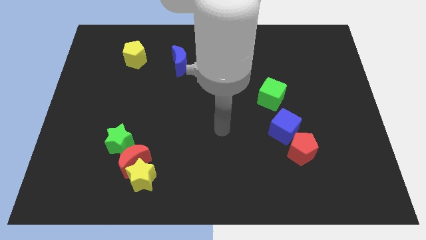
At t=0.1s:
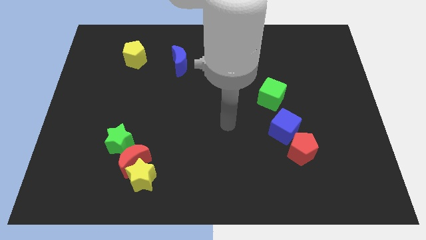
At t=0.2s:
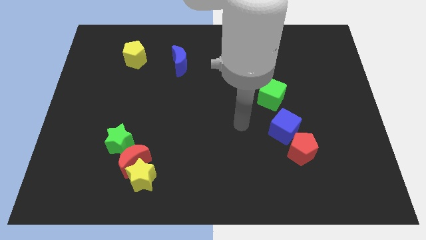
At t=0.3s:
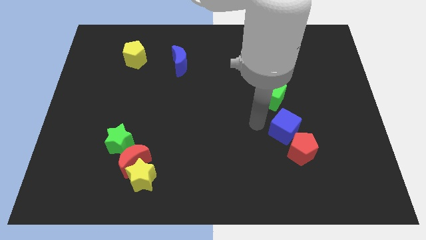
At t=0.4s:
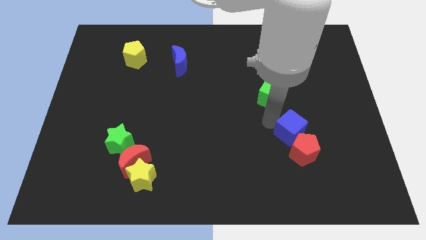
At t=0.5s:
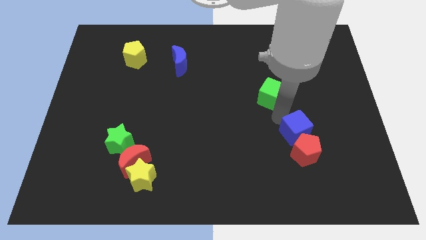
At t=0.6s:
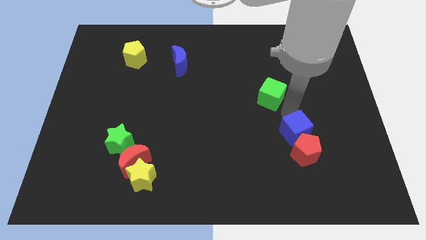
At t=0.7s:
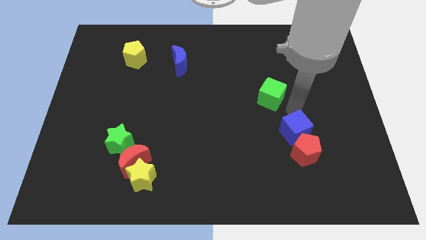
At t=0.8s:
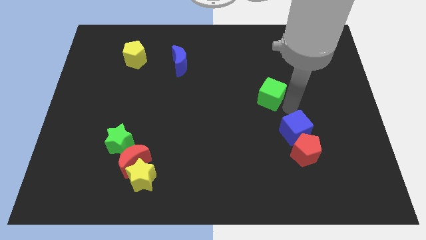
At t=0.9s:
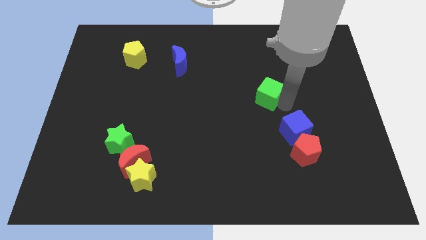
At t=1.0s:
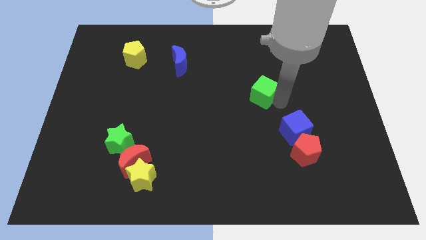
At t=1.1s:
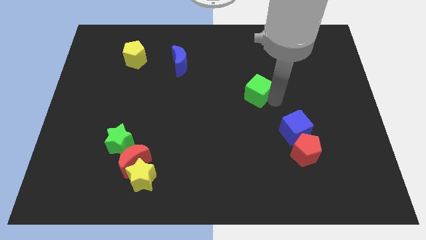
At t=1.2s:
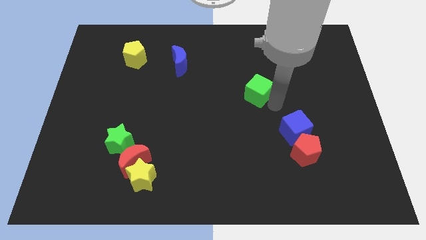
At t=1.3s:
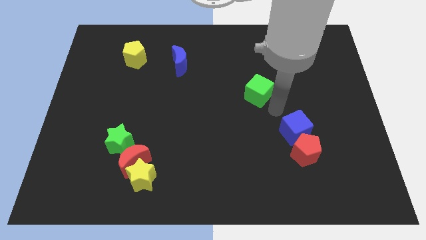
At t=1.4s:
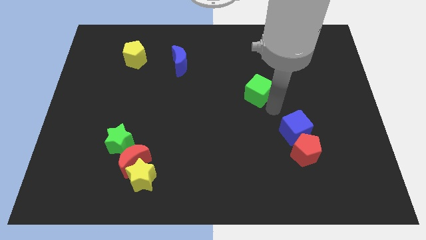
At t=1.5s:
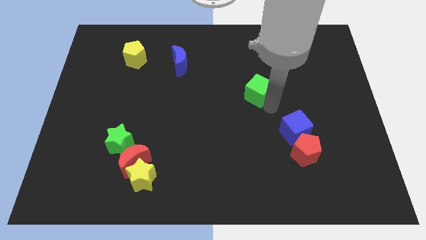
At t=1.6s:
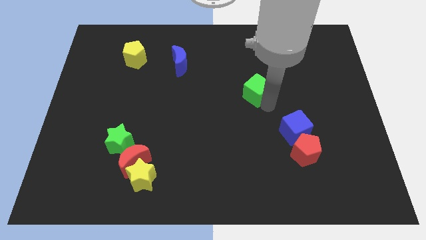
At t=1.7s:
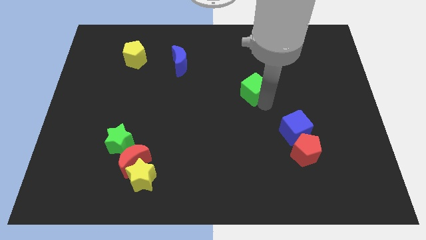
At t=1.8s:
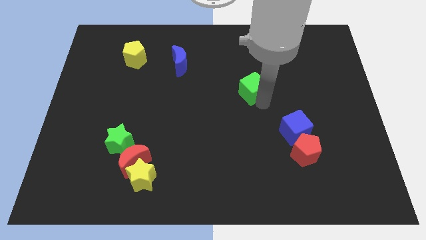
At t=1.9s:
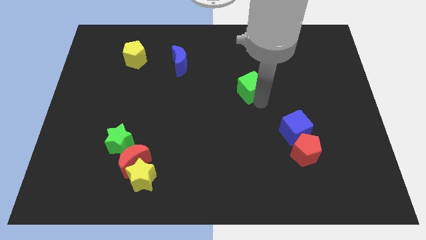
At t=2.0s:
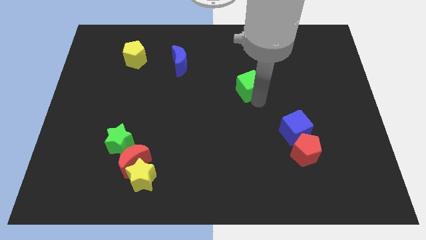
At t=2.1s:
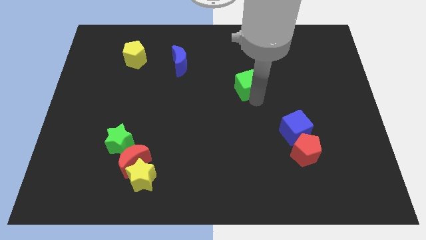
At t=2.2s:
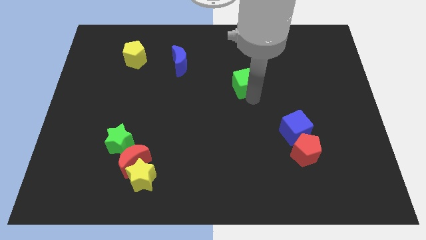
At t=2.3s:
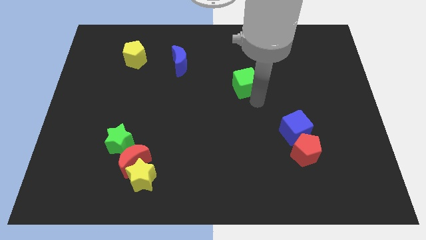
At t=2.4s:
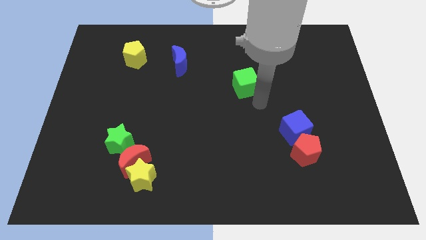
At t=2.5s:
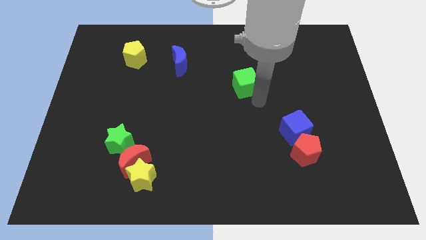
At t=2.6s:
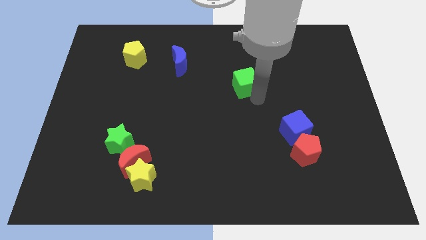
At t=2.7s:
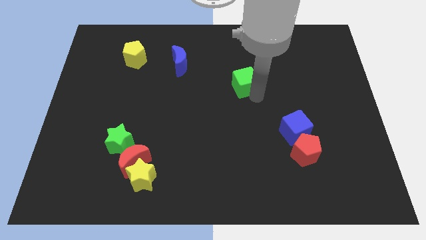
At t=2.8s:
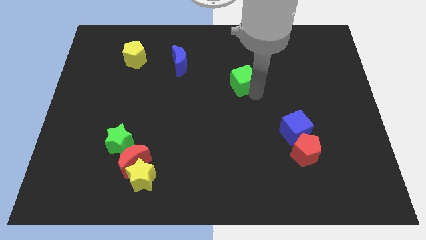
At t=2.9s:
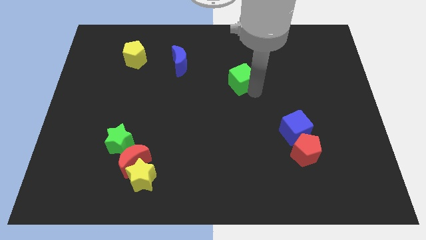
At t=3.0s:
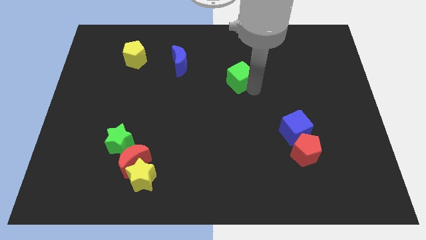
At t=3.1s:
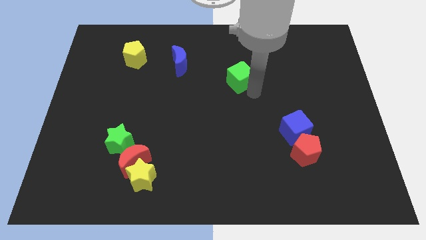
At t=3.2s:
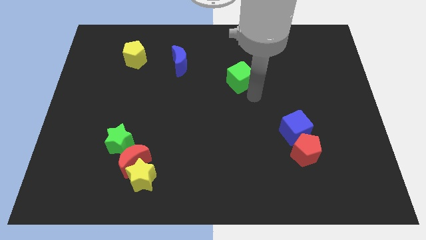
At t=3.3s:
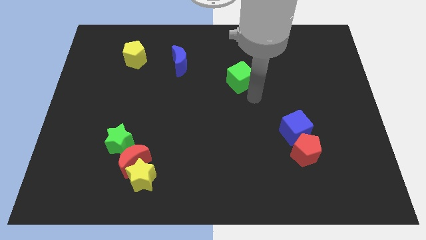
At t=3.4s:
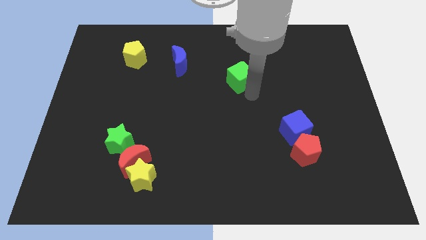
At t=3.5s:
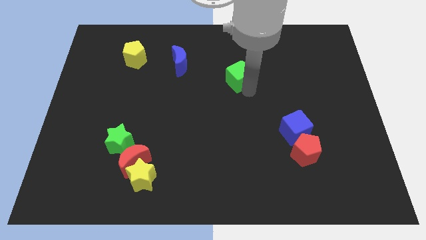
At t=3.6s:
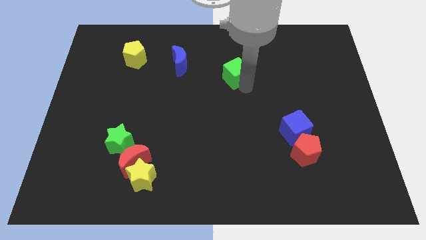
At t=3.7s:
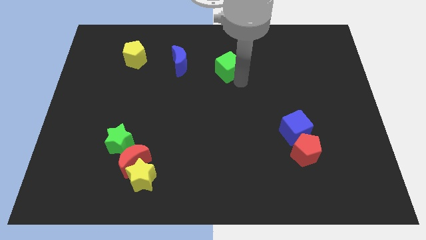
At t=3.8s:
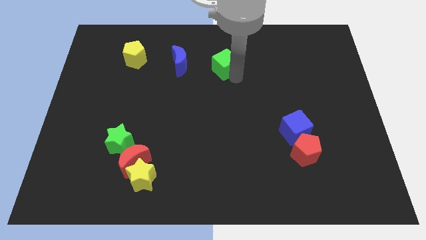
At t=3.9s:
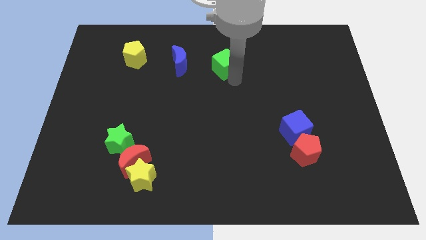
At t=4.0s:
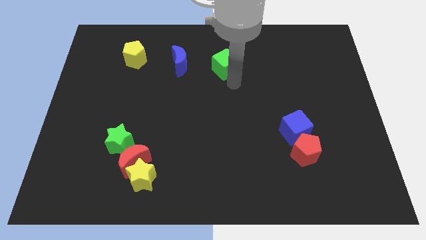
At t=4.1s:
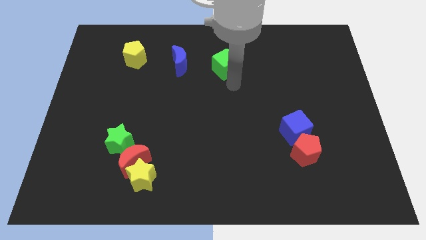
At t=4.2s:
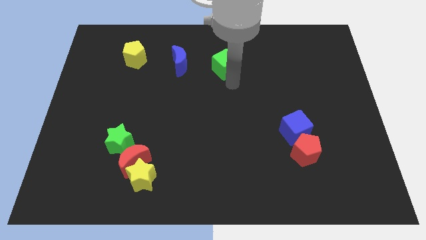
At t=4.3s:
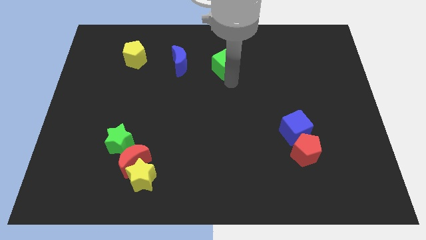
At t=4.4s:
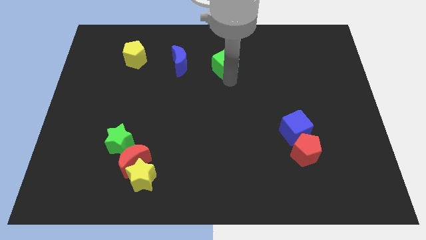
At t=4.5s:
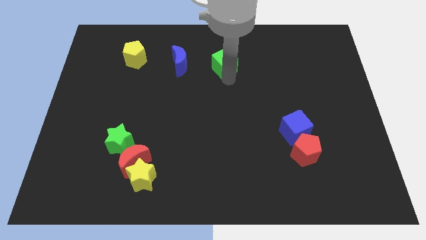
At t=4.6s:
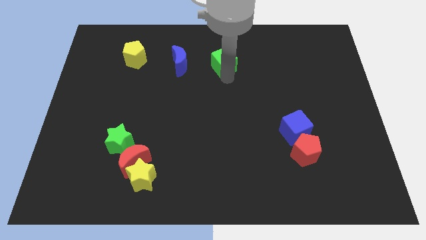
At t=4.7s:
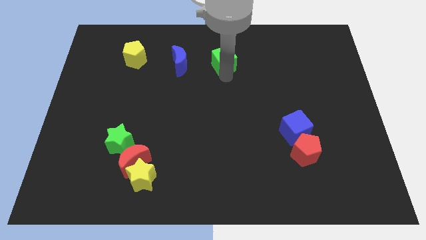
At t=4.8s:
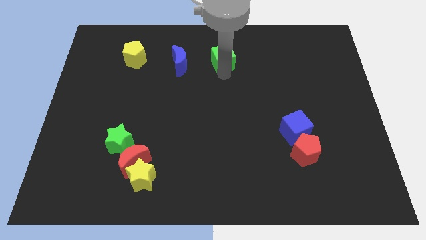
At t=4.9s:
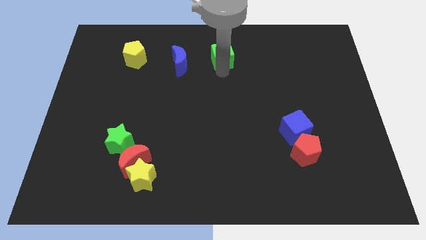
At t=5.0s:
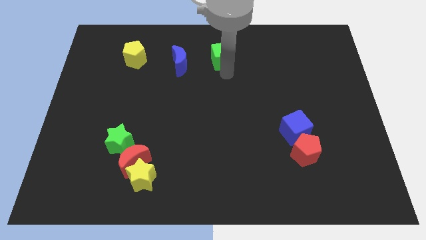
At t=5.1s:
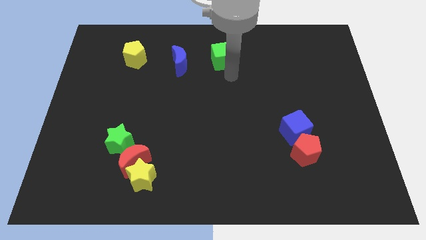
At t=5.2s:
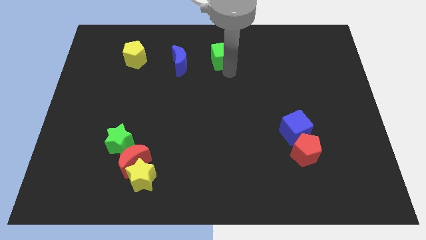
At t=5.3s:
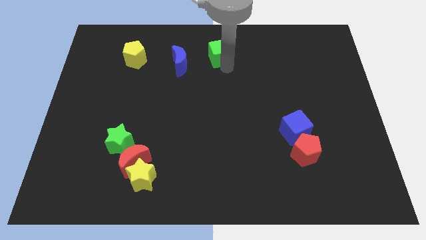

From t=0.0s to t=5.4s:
move the green cube to the top side

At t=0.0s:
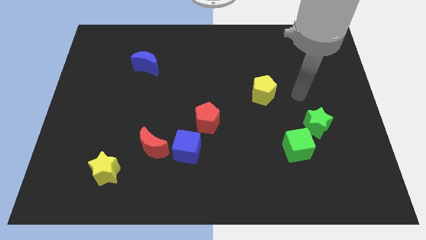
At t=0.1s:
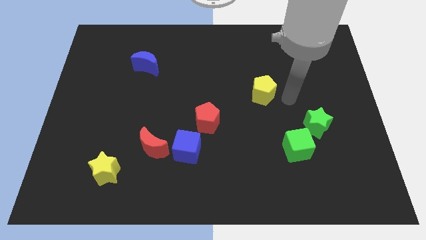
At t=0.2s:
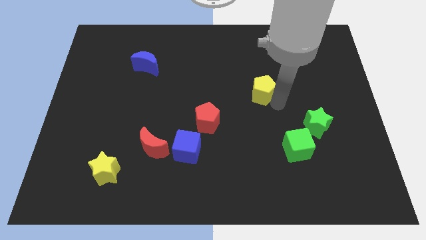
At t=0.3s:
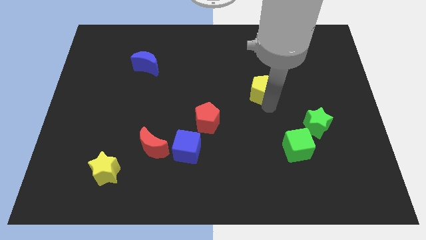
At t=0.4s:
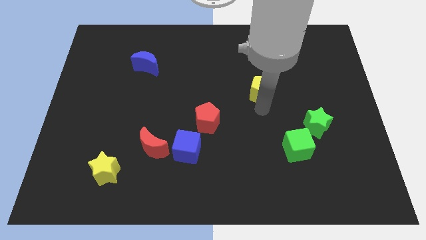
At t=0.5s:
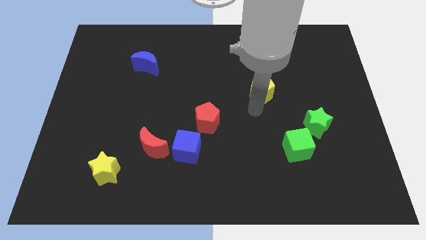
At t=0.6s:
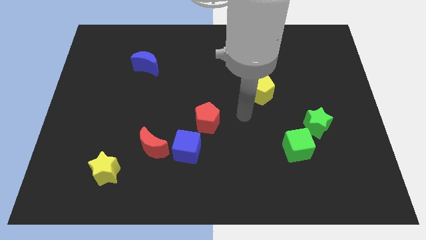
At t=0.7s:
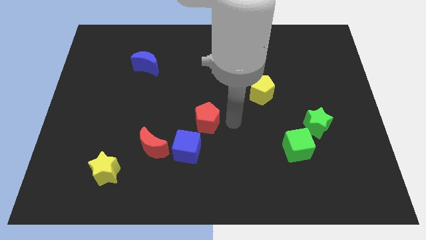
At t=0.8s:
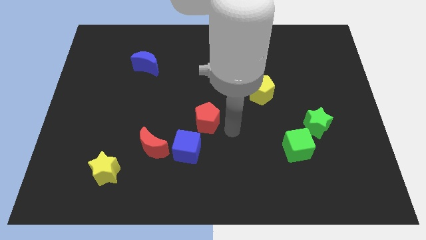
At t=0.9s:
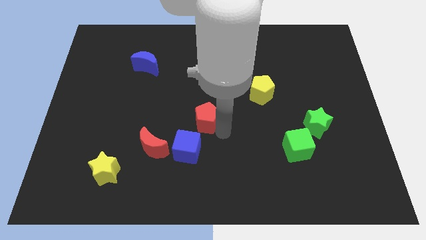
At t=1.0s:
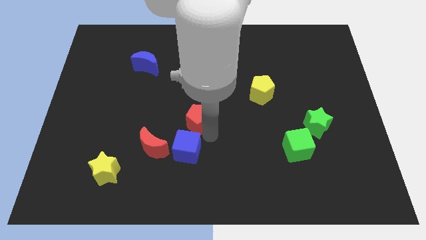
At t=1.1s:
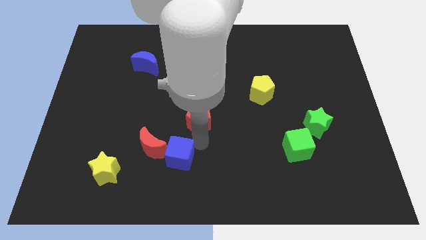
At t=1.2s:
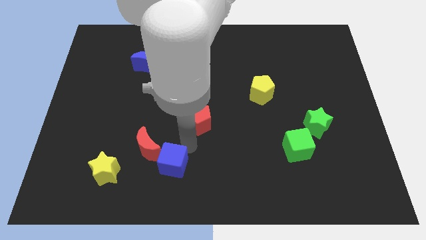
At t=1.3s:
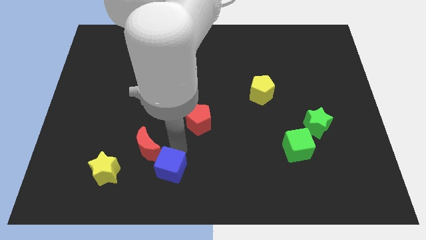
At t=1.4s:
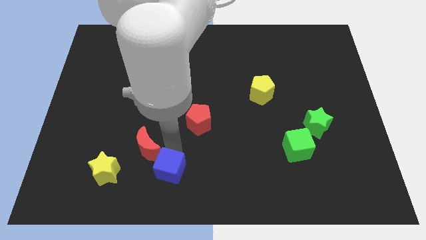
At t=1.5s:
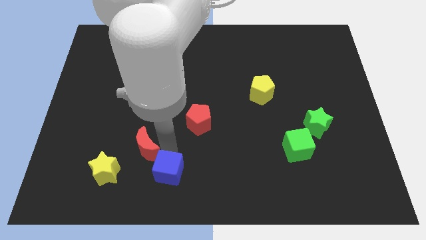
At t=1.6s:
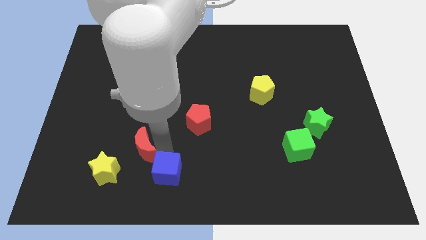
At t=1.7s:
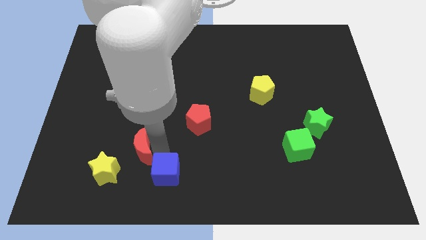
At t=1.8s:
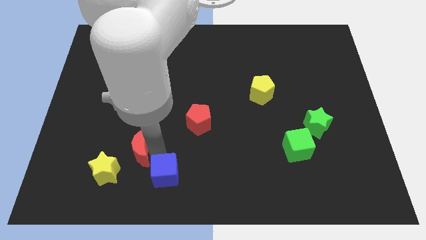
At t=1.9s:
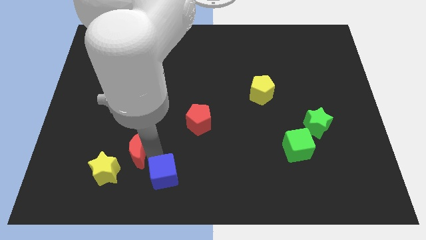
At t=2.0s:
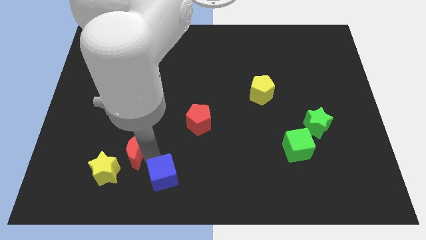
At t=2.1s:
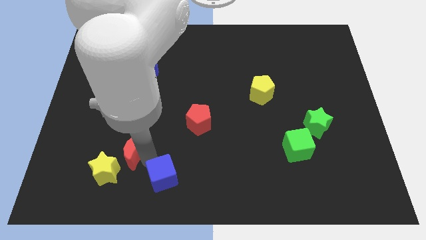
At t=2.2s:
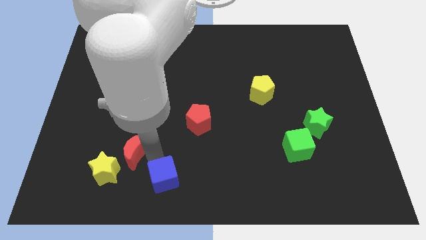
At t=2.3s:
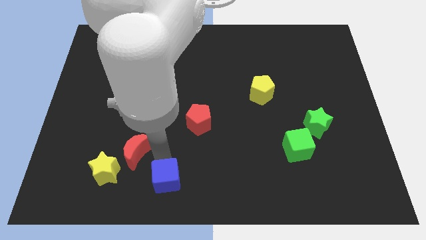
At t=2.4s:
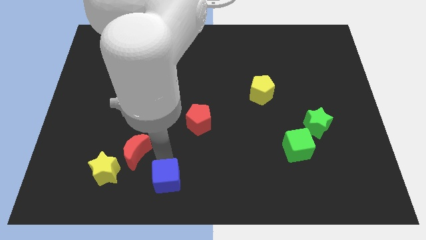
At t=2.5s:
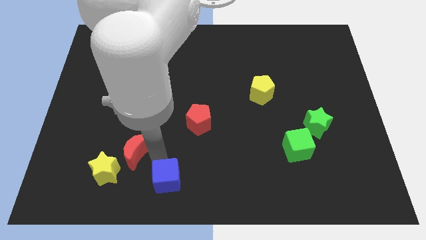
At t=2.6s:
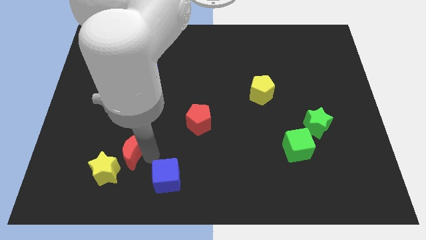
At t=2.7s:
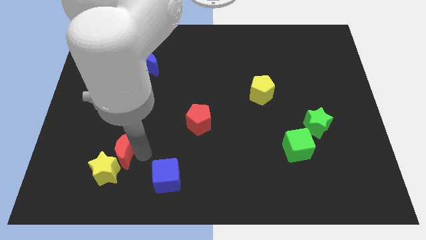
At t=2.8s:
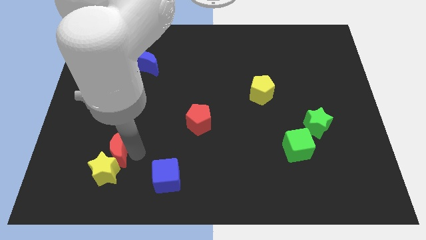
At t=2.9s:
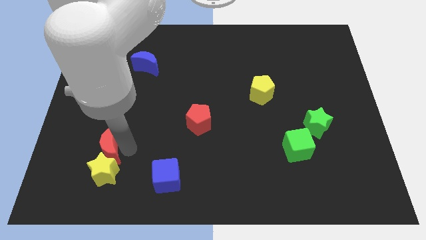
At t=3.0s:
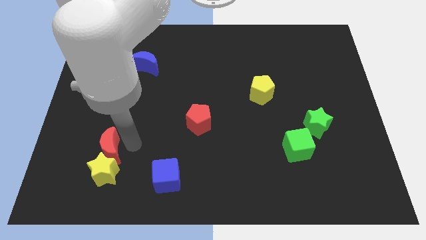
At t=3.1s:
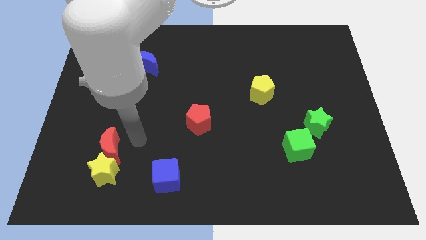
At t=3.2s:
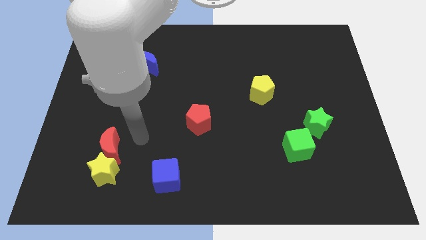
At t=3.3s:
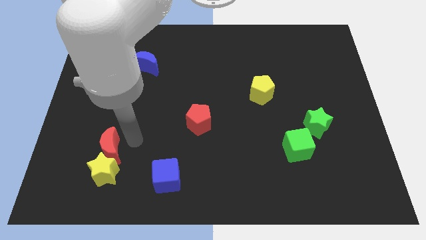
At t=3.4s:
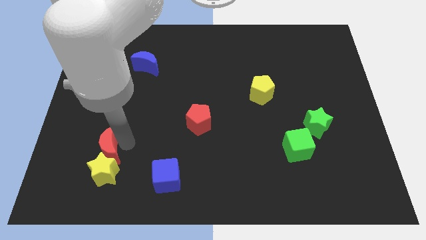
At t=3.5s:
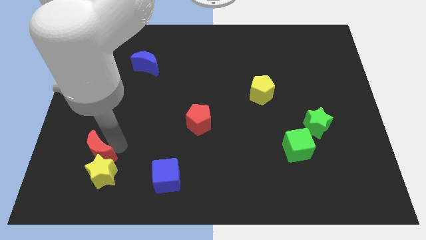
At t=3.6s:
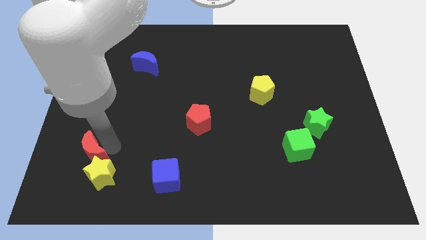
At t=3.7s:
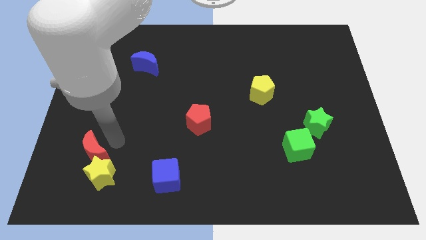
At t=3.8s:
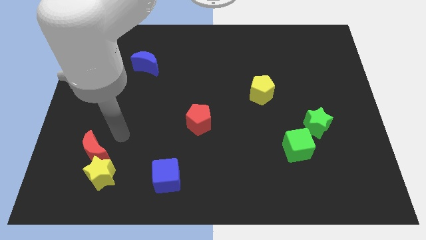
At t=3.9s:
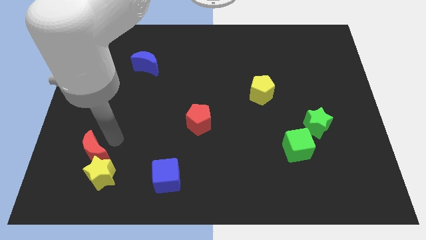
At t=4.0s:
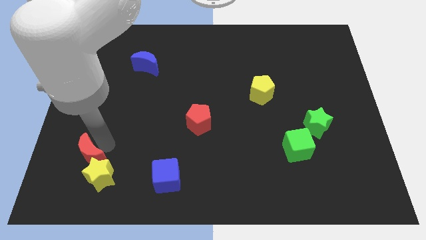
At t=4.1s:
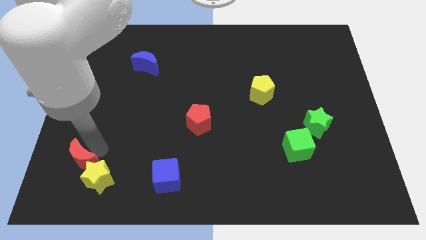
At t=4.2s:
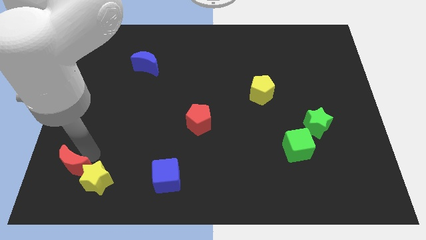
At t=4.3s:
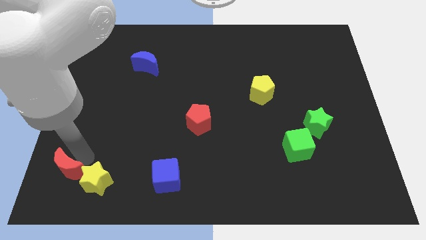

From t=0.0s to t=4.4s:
slide the red moon to the lower left corner
